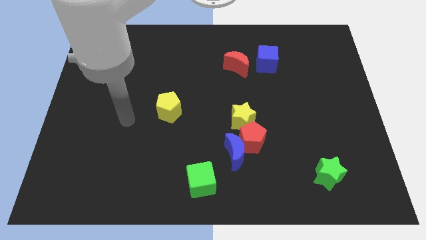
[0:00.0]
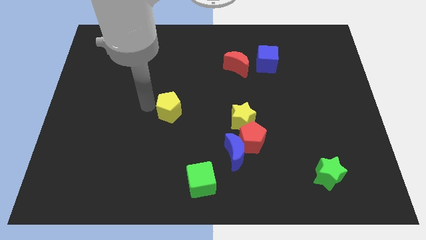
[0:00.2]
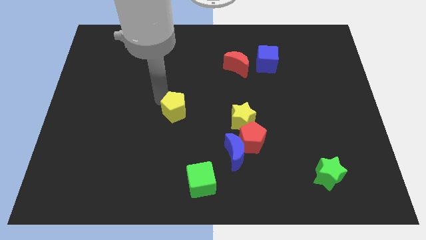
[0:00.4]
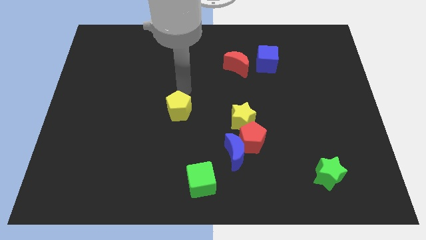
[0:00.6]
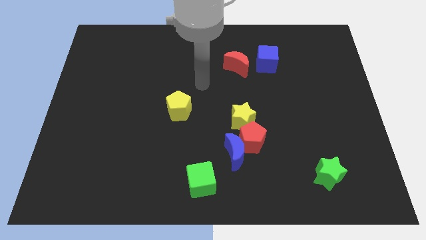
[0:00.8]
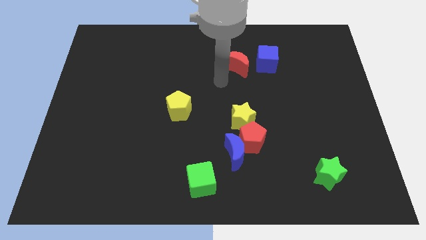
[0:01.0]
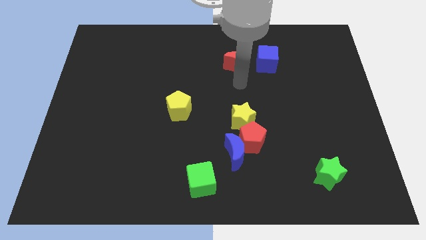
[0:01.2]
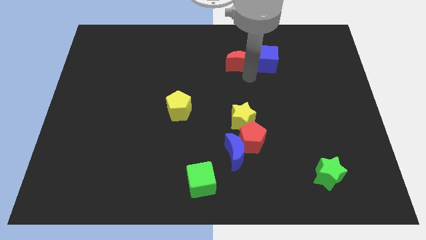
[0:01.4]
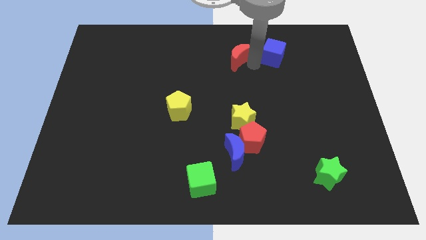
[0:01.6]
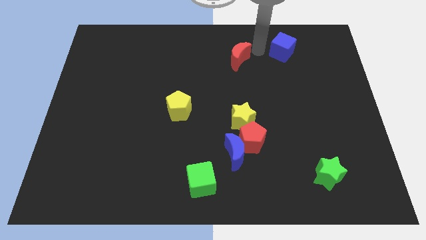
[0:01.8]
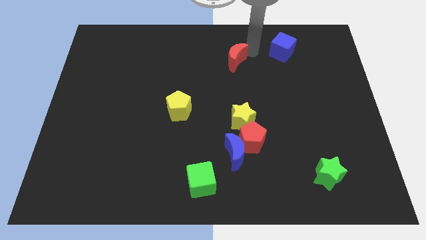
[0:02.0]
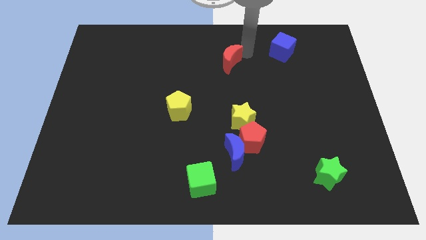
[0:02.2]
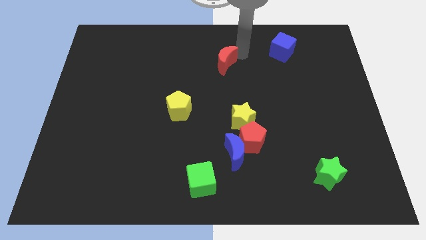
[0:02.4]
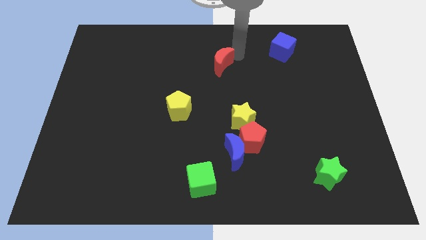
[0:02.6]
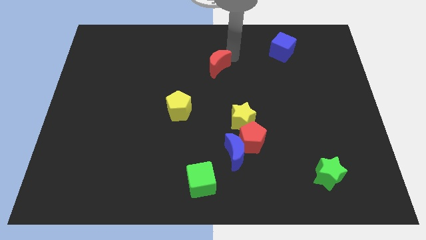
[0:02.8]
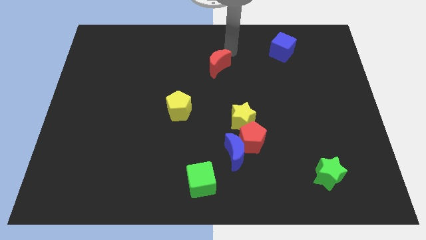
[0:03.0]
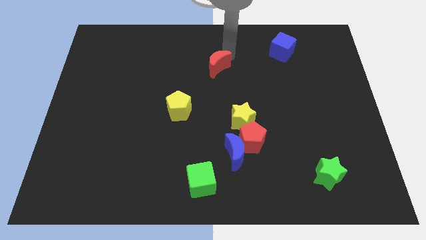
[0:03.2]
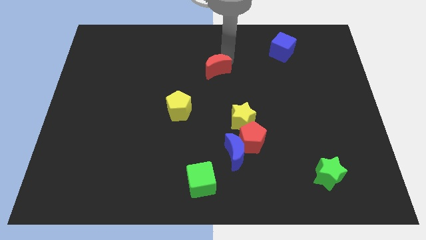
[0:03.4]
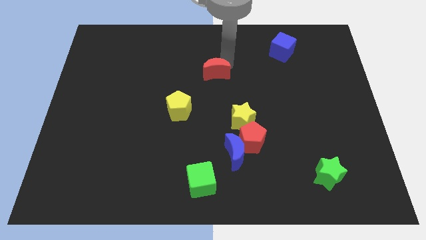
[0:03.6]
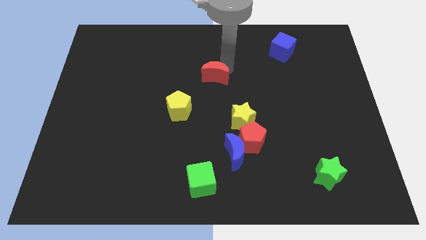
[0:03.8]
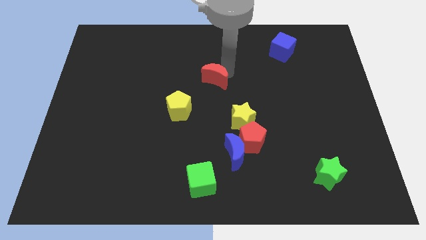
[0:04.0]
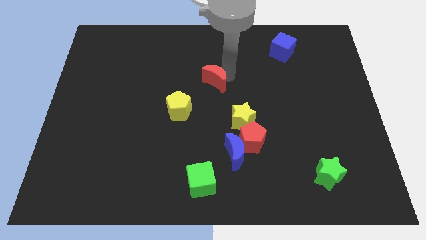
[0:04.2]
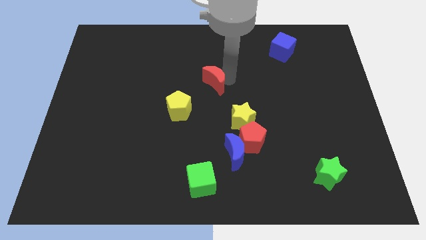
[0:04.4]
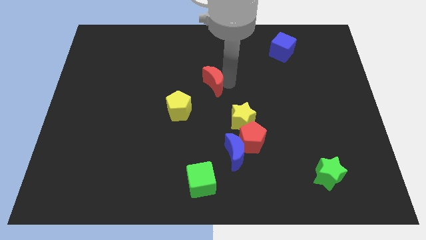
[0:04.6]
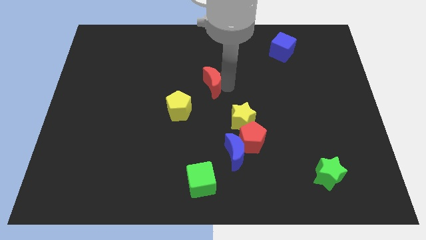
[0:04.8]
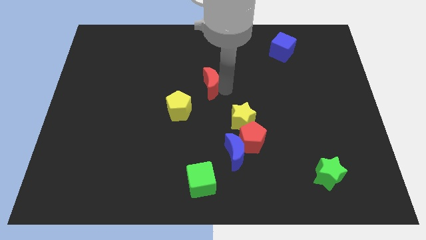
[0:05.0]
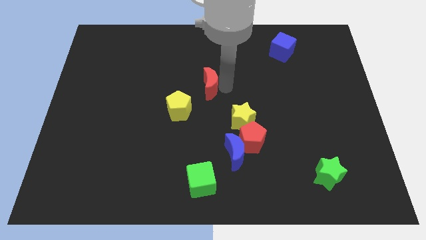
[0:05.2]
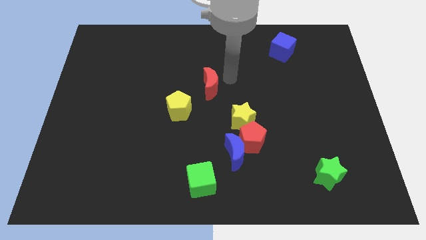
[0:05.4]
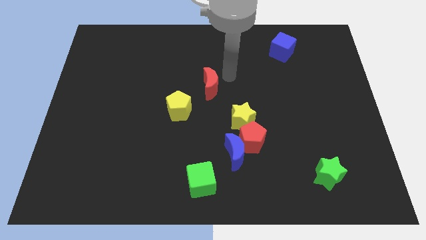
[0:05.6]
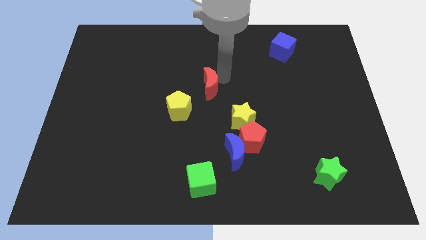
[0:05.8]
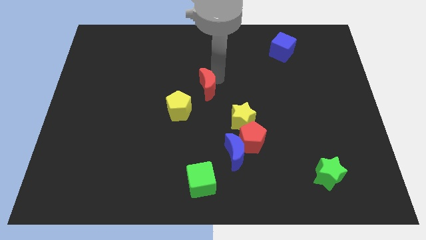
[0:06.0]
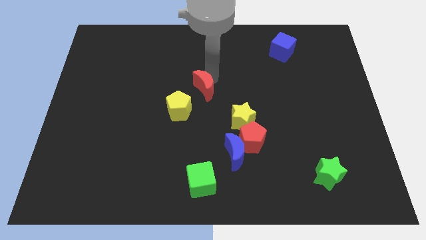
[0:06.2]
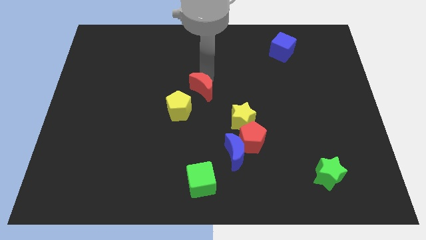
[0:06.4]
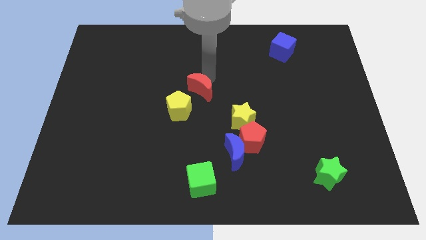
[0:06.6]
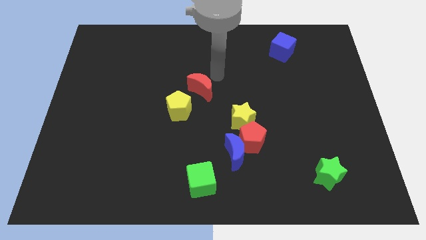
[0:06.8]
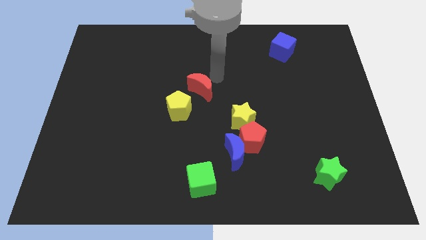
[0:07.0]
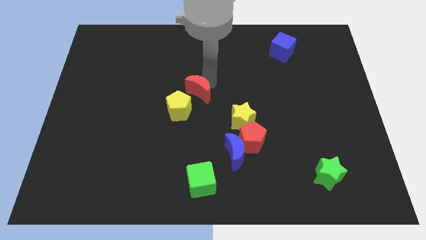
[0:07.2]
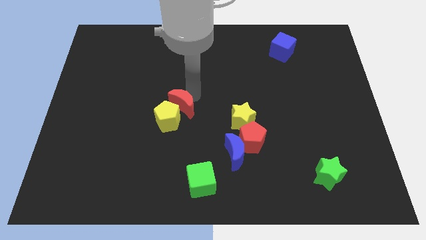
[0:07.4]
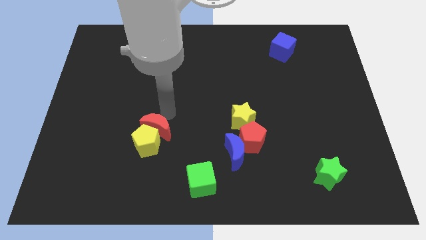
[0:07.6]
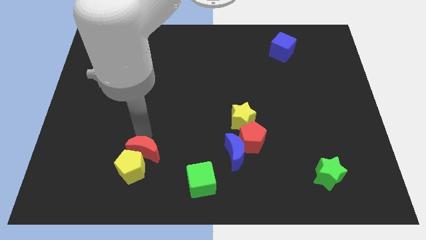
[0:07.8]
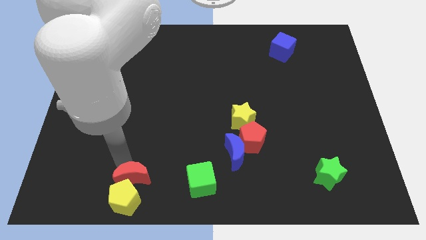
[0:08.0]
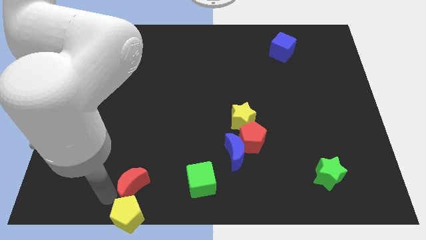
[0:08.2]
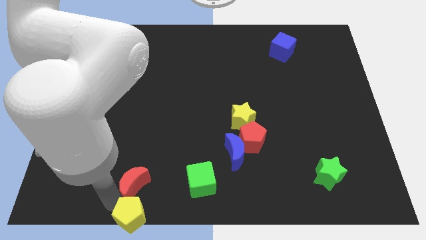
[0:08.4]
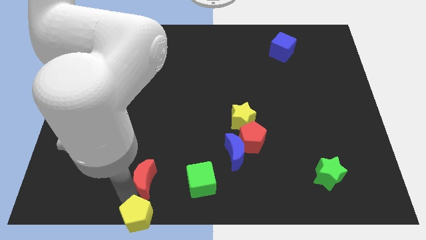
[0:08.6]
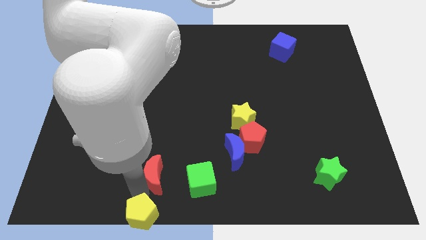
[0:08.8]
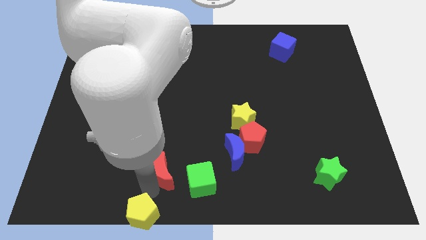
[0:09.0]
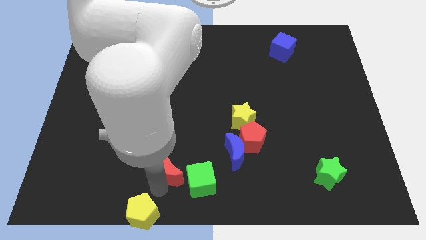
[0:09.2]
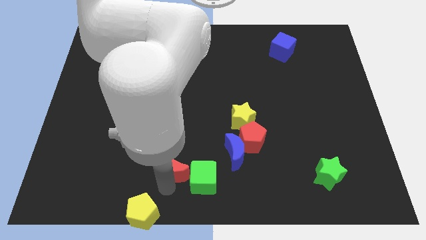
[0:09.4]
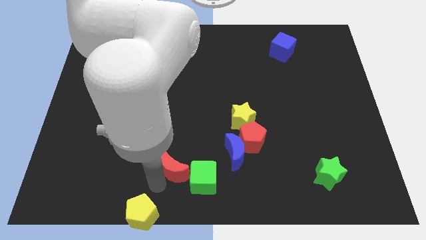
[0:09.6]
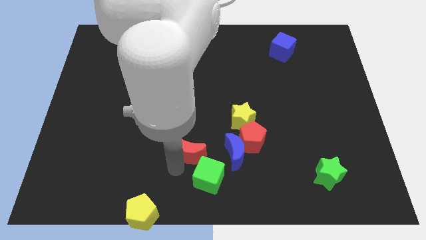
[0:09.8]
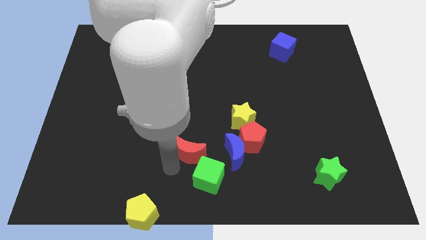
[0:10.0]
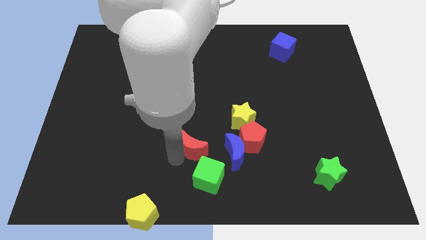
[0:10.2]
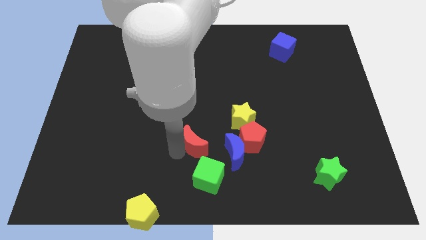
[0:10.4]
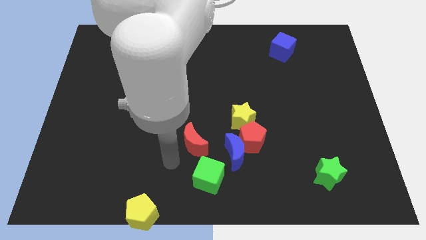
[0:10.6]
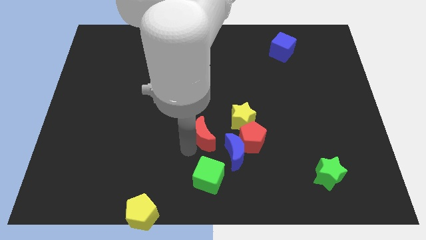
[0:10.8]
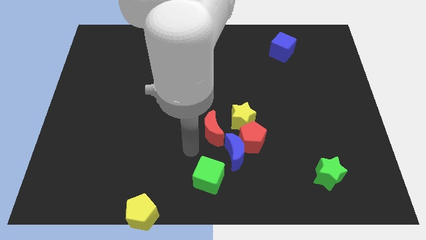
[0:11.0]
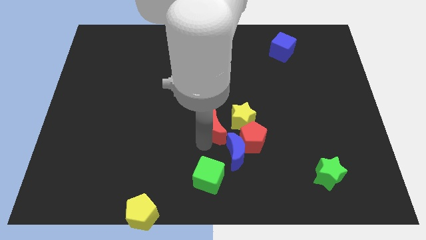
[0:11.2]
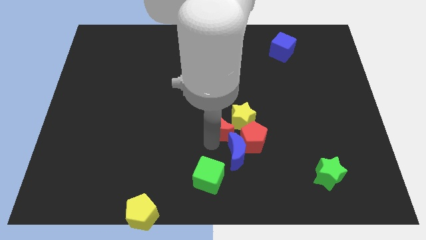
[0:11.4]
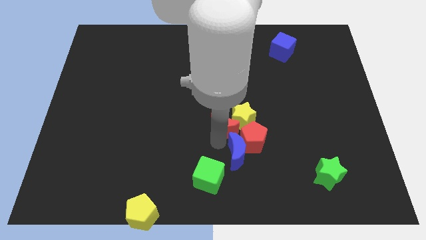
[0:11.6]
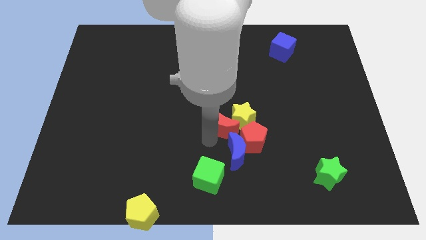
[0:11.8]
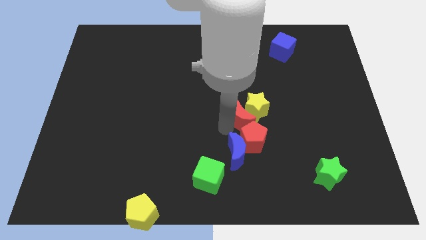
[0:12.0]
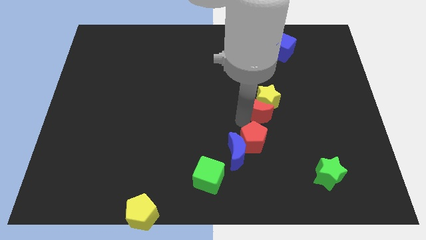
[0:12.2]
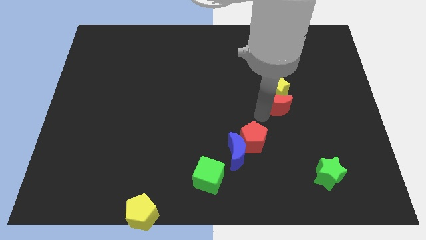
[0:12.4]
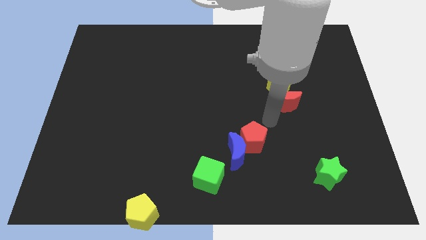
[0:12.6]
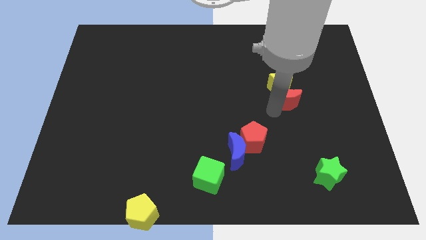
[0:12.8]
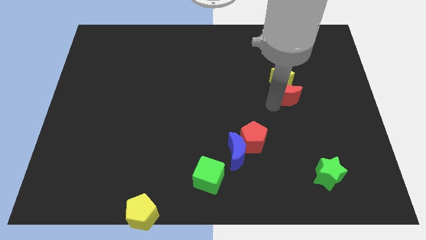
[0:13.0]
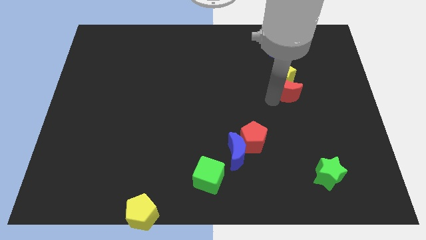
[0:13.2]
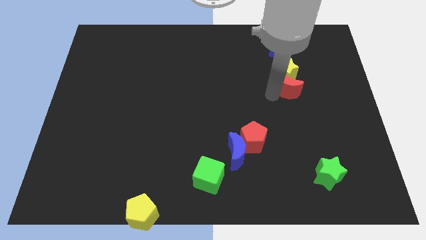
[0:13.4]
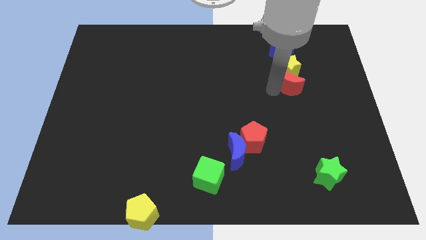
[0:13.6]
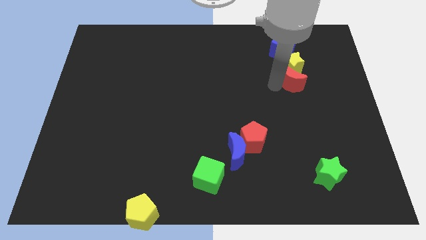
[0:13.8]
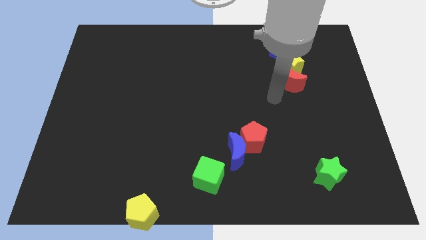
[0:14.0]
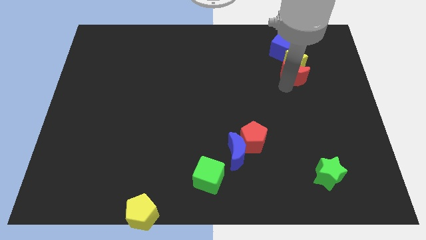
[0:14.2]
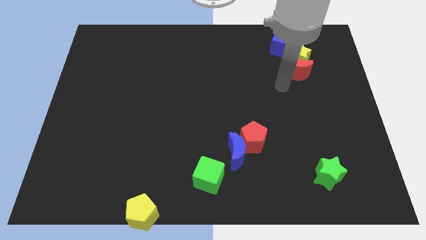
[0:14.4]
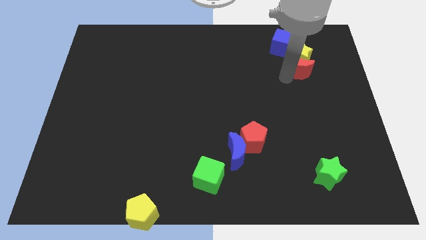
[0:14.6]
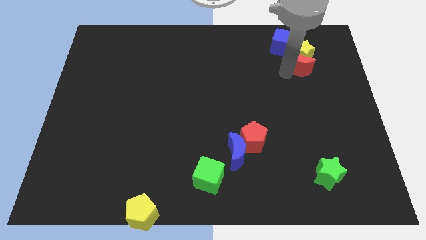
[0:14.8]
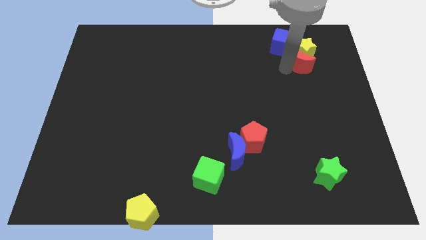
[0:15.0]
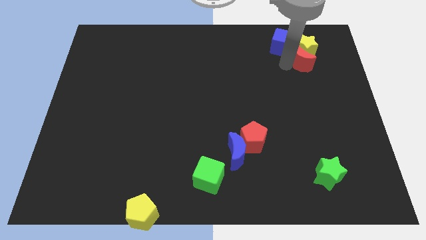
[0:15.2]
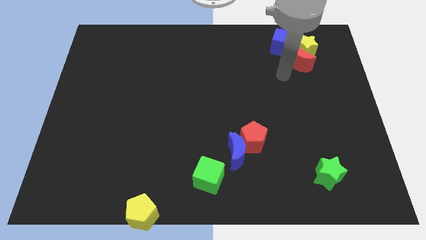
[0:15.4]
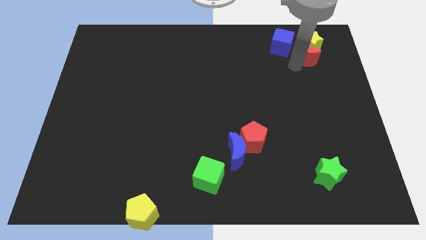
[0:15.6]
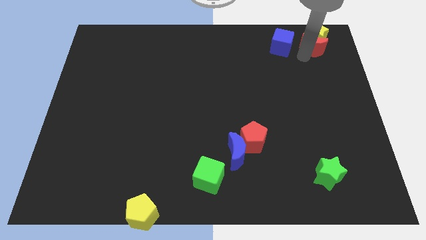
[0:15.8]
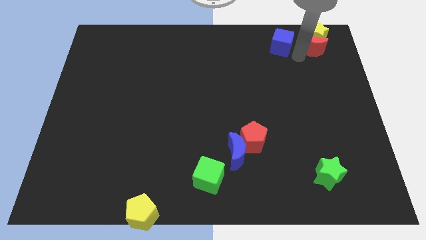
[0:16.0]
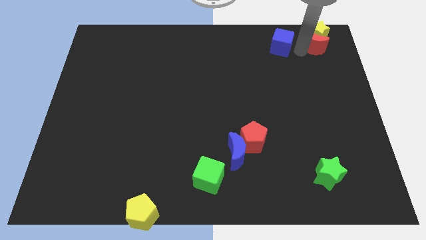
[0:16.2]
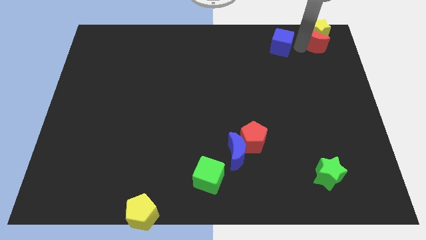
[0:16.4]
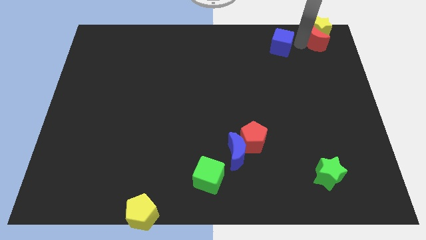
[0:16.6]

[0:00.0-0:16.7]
push the red moon to the top right
